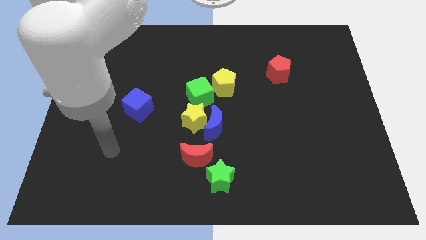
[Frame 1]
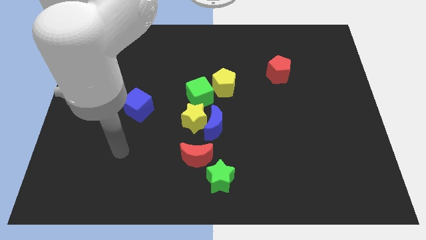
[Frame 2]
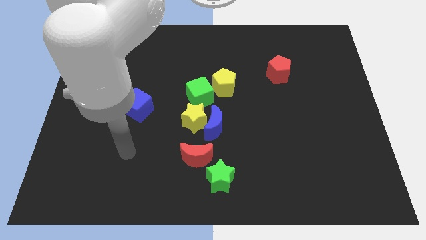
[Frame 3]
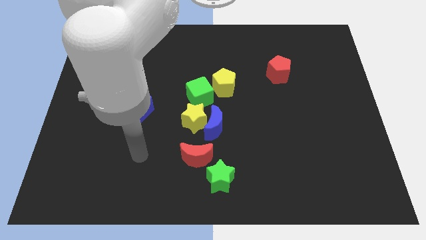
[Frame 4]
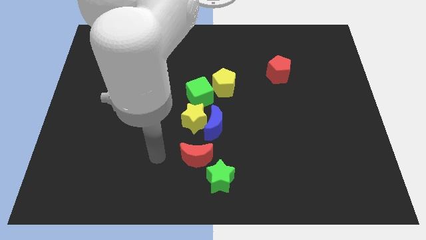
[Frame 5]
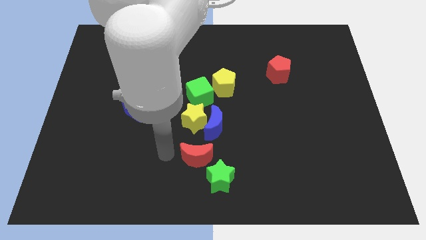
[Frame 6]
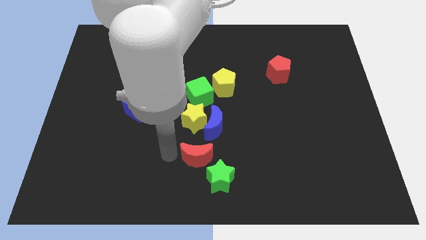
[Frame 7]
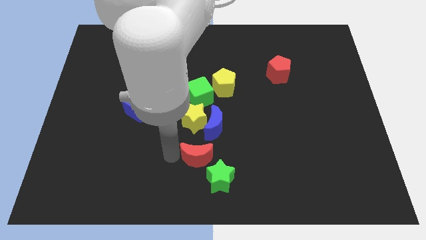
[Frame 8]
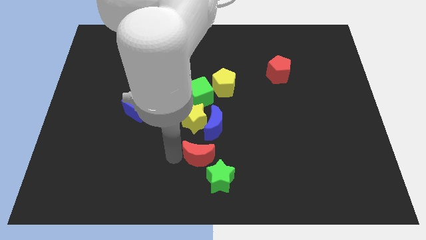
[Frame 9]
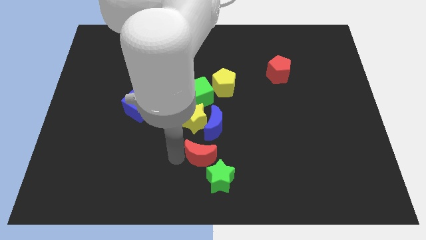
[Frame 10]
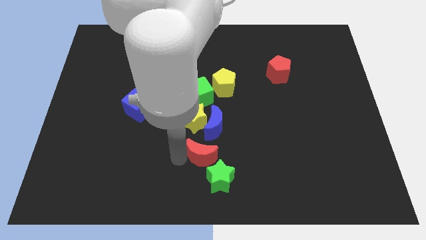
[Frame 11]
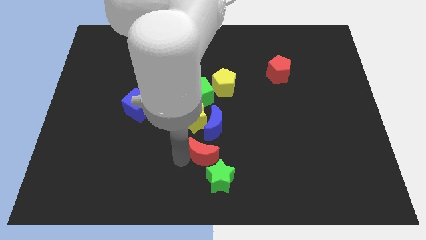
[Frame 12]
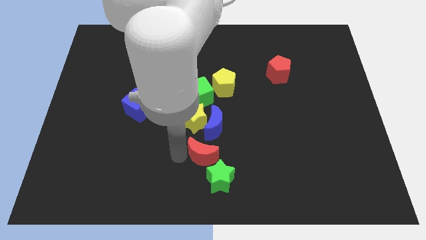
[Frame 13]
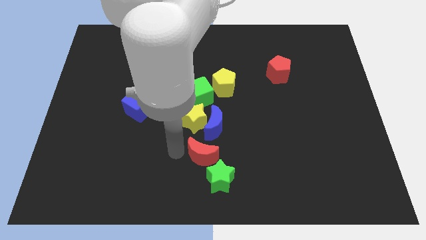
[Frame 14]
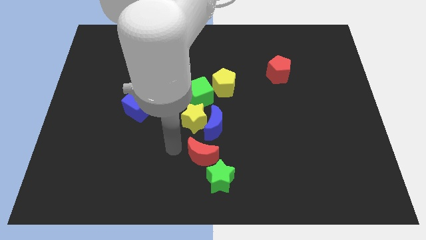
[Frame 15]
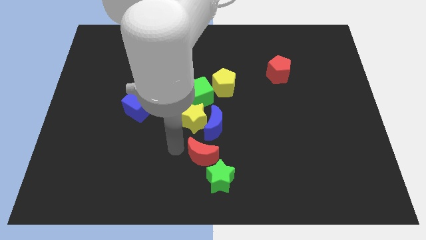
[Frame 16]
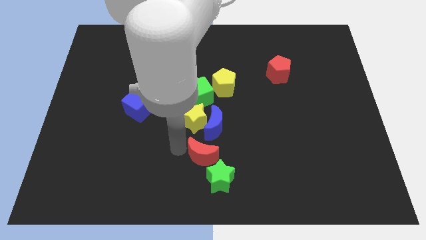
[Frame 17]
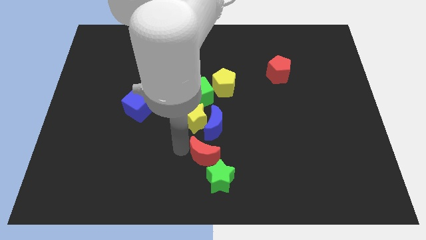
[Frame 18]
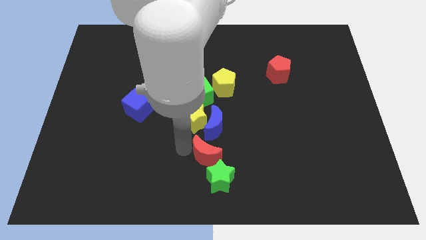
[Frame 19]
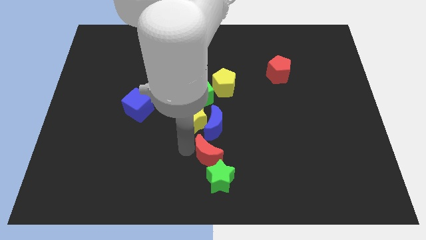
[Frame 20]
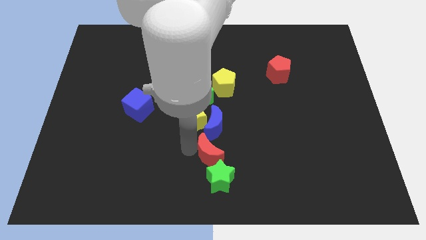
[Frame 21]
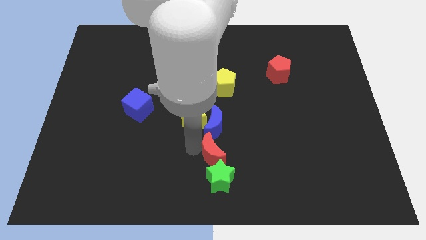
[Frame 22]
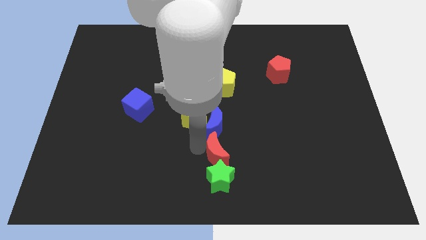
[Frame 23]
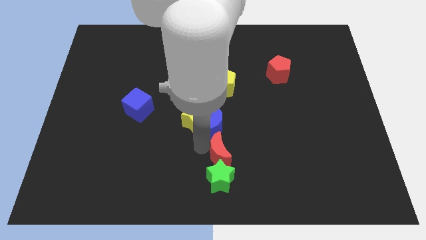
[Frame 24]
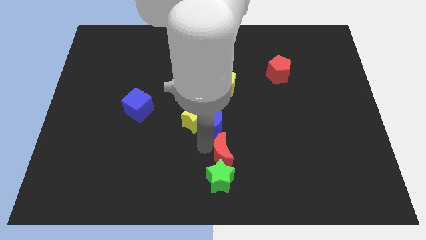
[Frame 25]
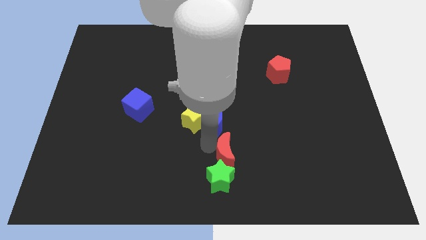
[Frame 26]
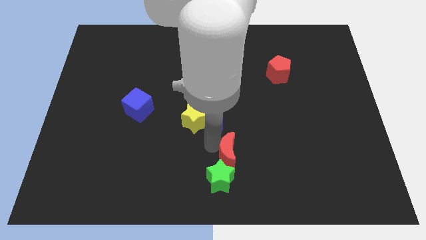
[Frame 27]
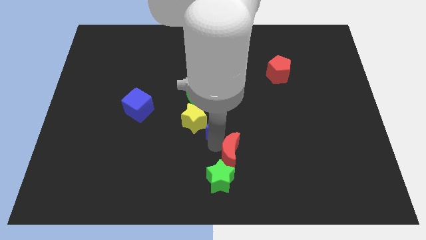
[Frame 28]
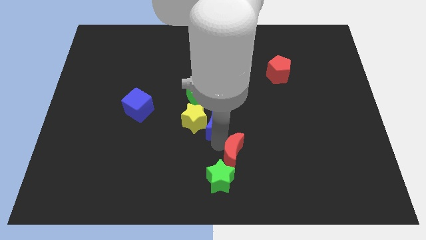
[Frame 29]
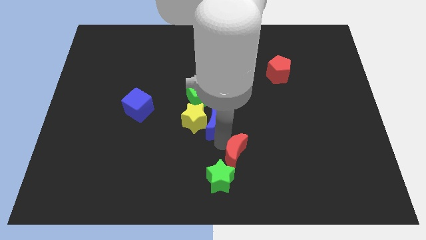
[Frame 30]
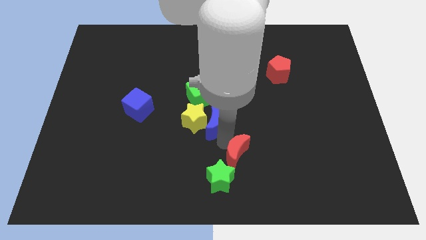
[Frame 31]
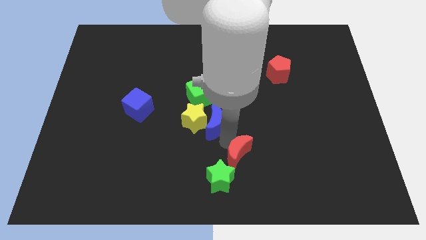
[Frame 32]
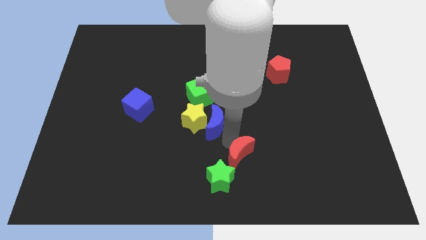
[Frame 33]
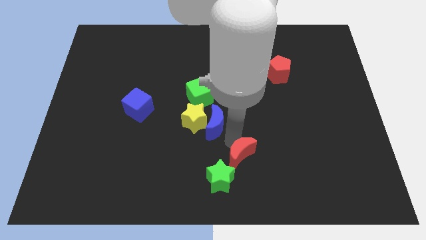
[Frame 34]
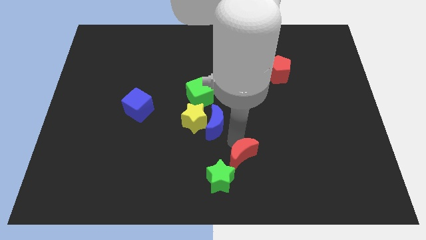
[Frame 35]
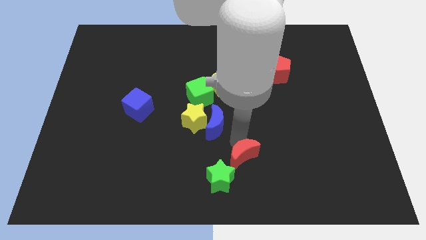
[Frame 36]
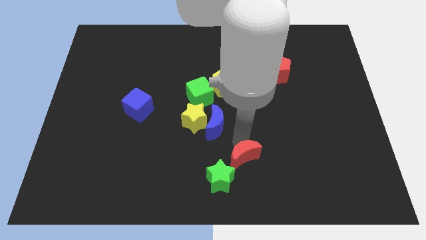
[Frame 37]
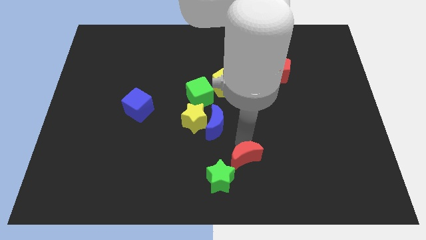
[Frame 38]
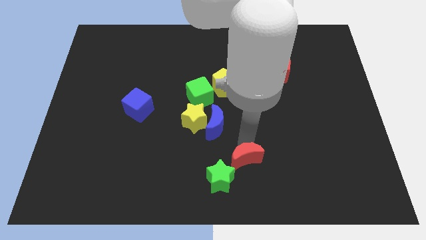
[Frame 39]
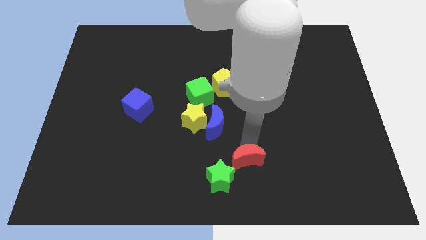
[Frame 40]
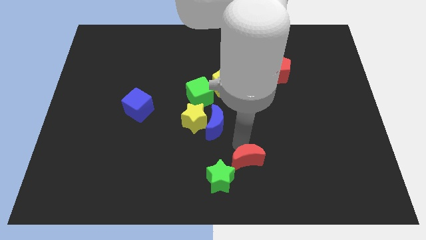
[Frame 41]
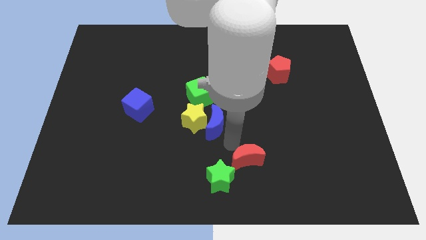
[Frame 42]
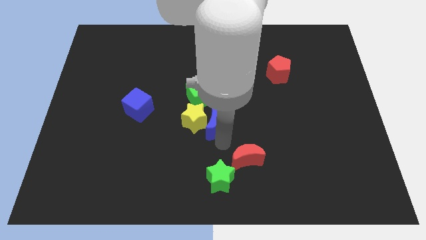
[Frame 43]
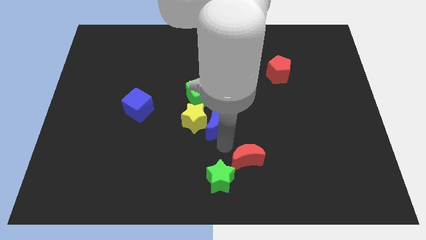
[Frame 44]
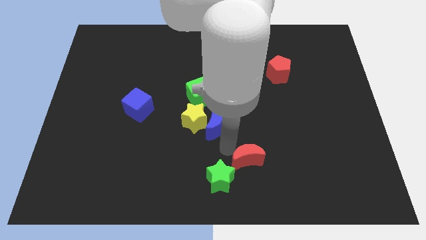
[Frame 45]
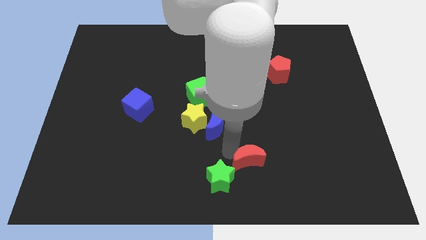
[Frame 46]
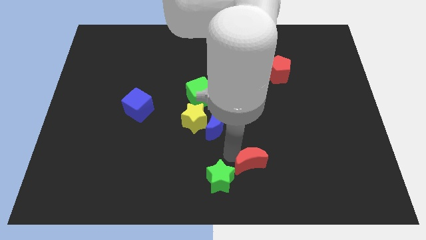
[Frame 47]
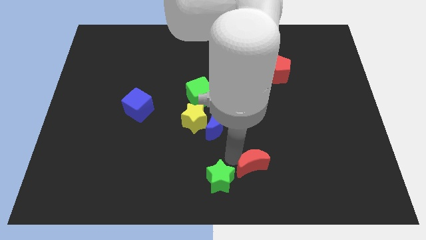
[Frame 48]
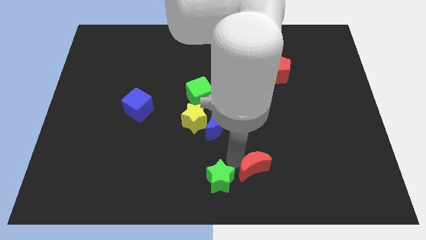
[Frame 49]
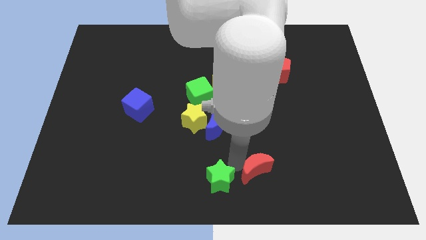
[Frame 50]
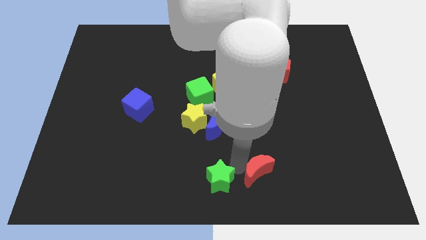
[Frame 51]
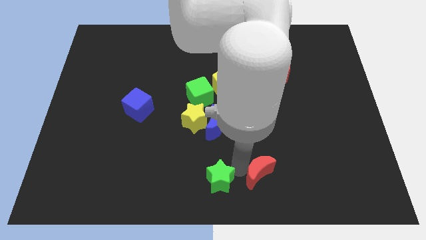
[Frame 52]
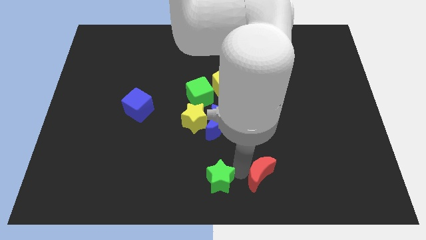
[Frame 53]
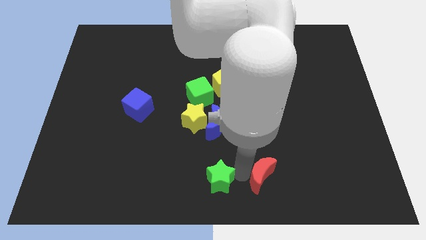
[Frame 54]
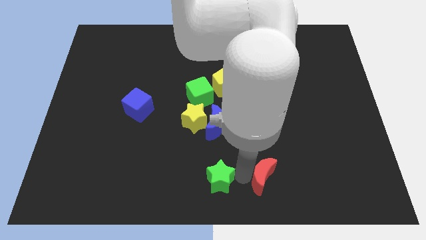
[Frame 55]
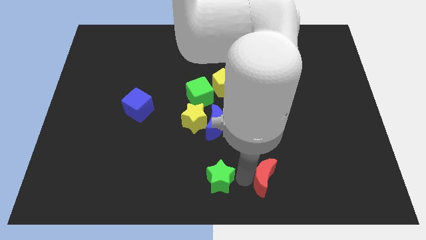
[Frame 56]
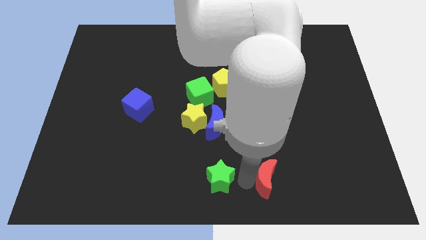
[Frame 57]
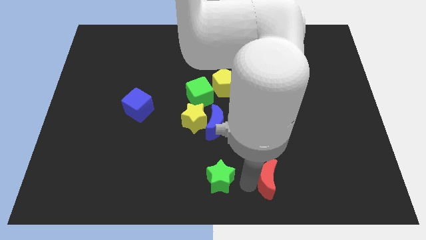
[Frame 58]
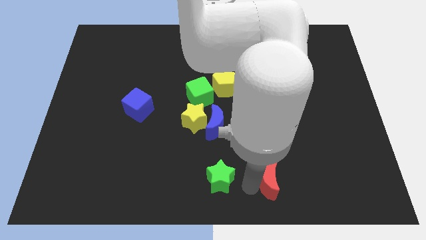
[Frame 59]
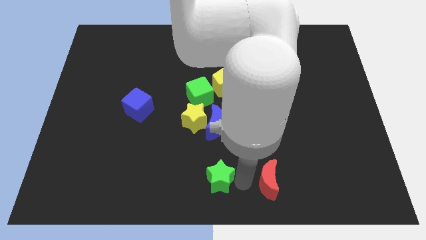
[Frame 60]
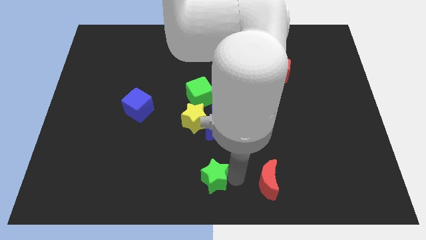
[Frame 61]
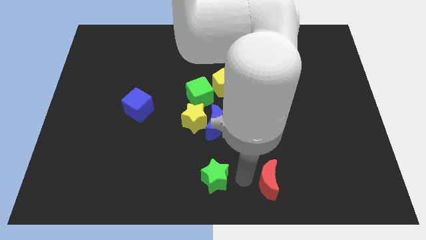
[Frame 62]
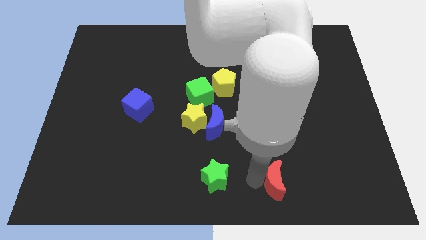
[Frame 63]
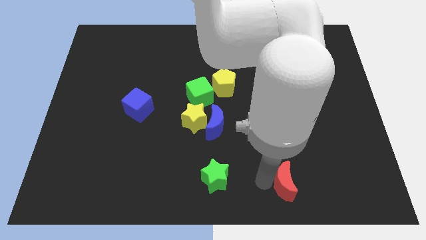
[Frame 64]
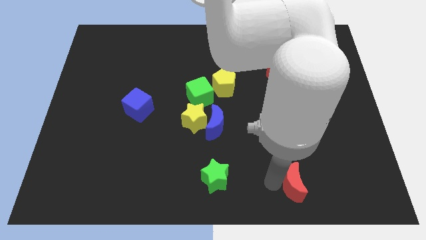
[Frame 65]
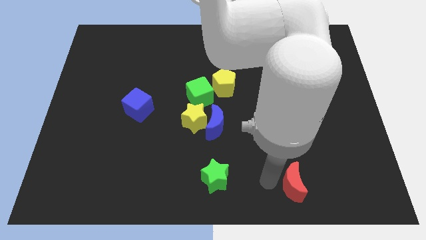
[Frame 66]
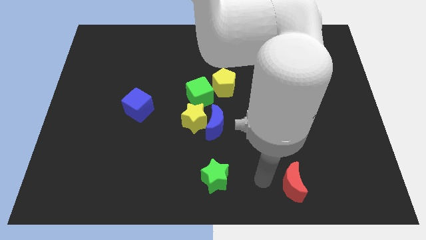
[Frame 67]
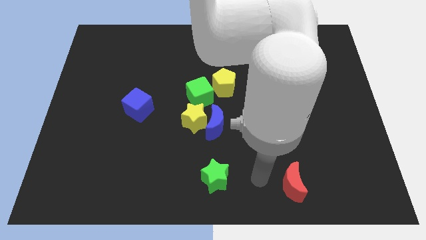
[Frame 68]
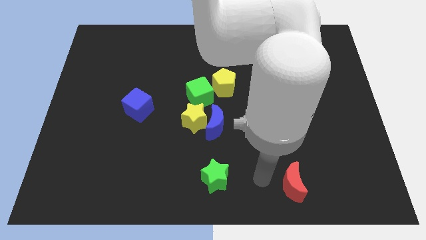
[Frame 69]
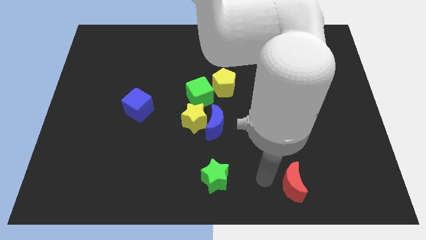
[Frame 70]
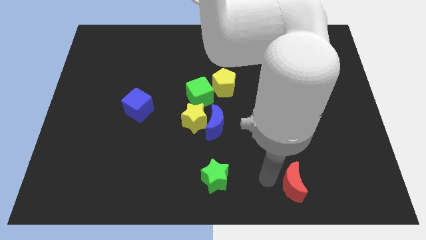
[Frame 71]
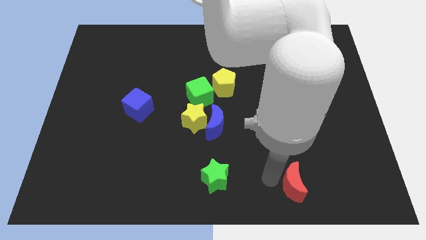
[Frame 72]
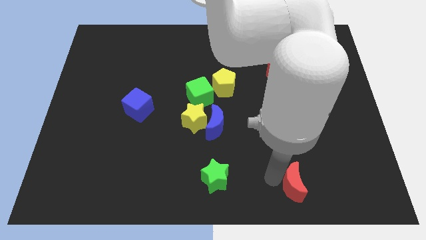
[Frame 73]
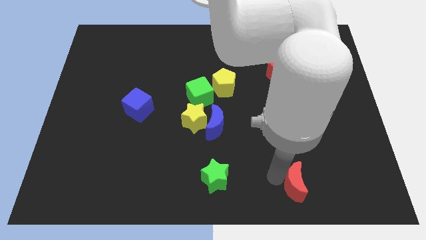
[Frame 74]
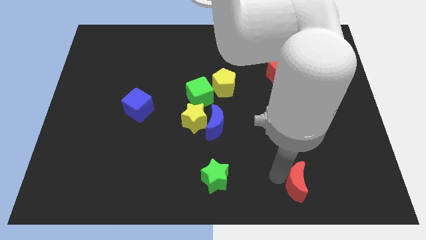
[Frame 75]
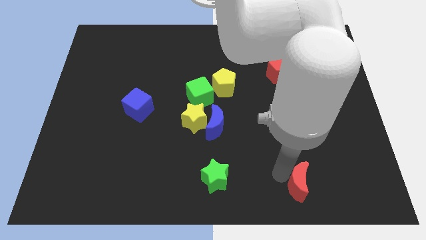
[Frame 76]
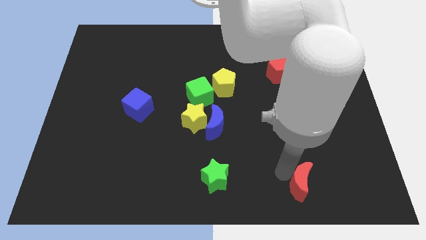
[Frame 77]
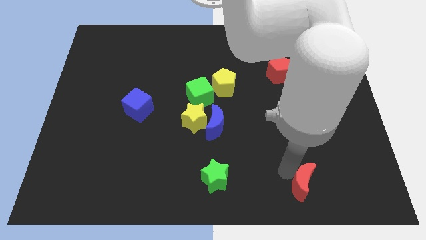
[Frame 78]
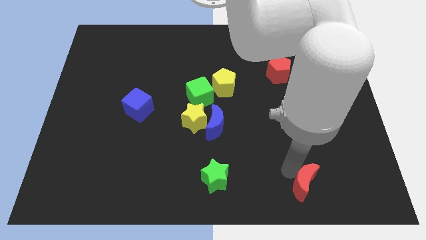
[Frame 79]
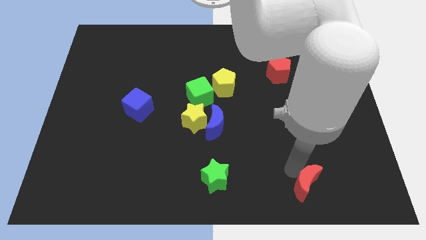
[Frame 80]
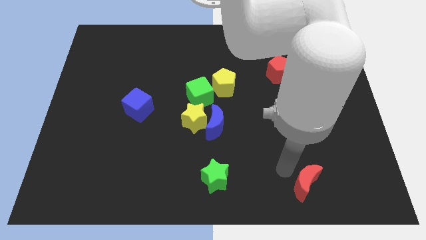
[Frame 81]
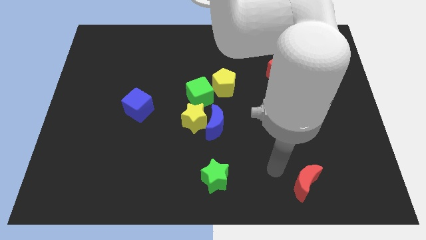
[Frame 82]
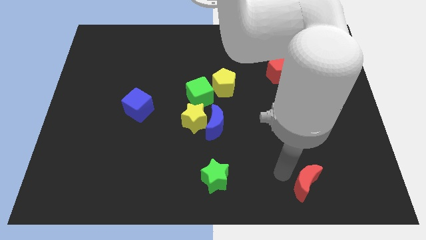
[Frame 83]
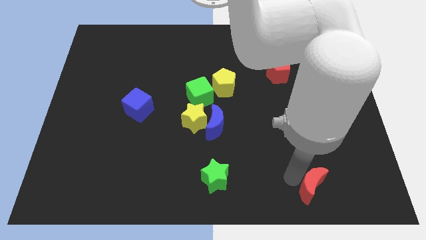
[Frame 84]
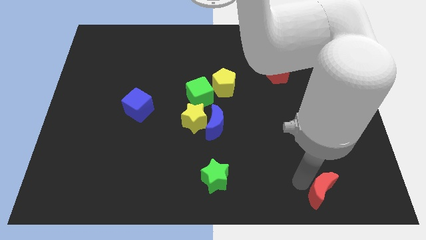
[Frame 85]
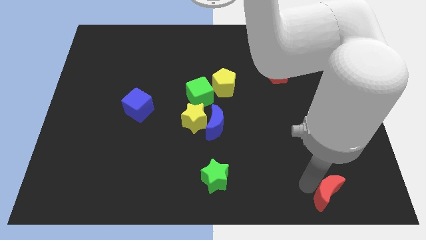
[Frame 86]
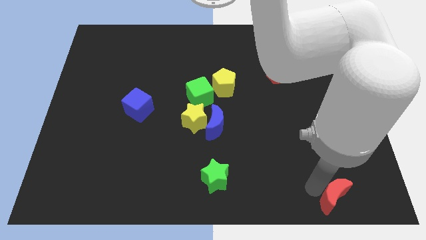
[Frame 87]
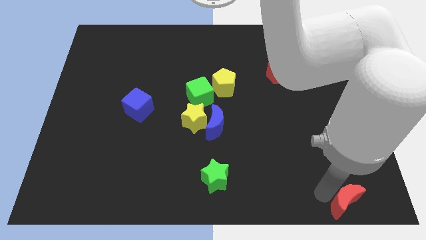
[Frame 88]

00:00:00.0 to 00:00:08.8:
slide the red moon to the bottom right corner
